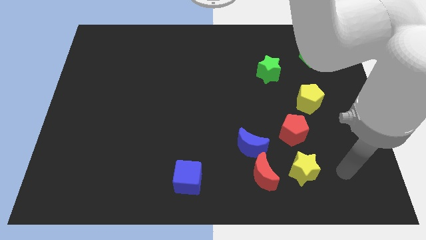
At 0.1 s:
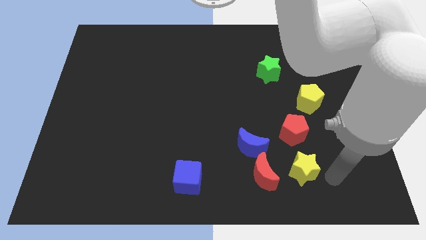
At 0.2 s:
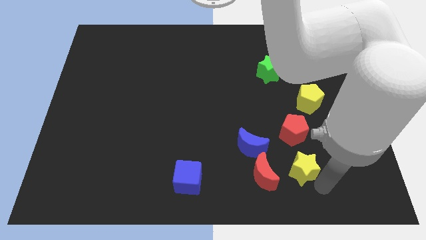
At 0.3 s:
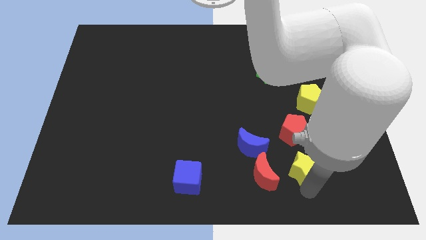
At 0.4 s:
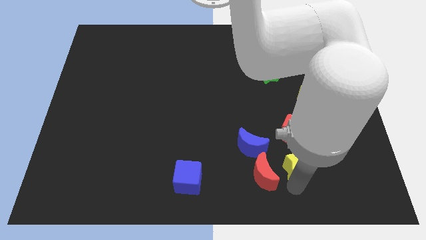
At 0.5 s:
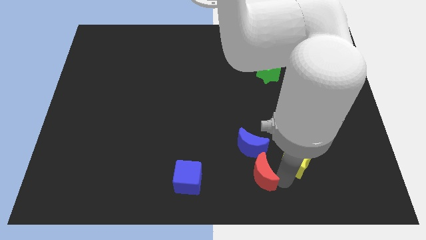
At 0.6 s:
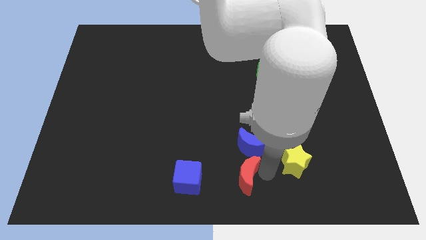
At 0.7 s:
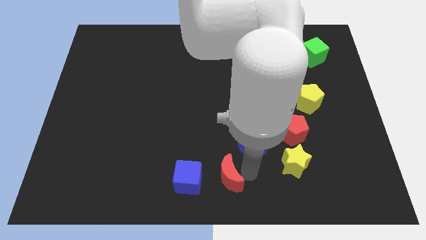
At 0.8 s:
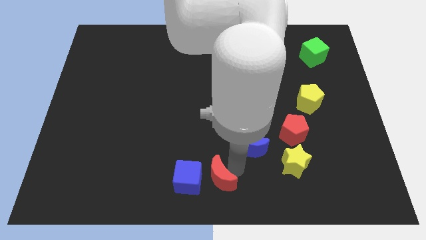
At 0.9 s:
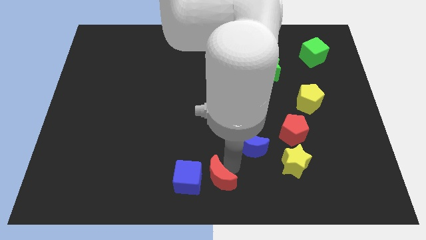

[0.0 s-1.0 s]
separate the blue moon from the red moon

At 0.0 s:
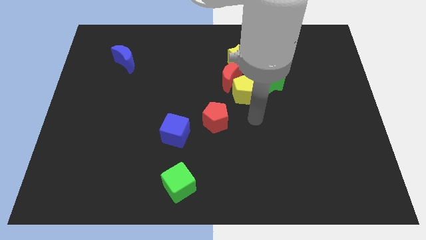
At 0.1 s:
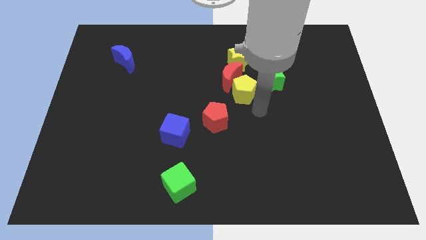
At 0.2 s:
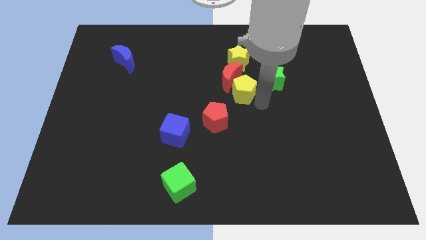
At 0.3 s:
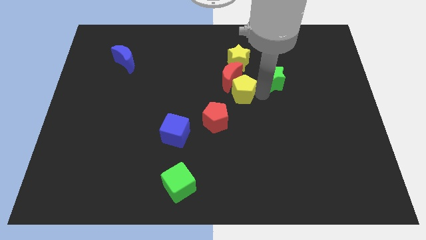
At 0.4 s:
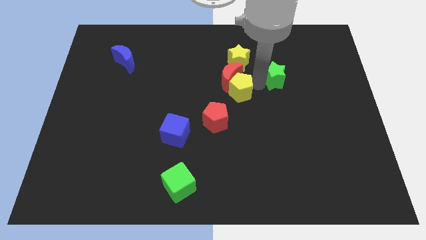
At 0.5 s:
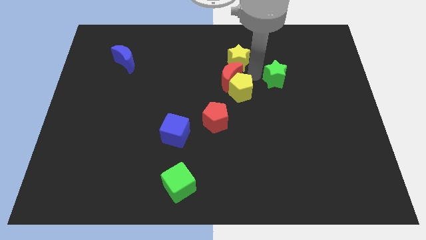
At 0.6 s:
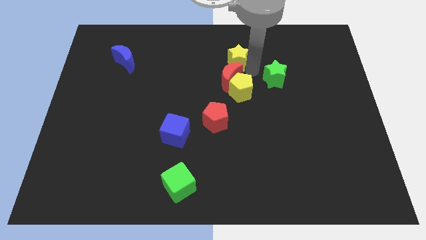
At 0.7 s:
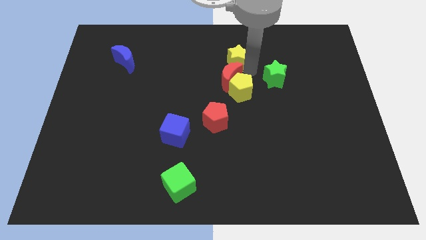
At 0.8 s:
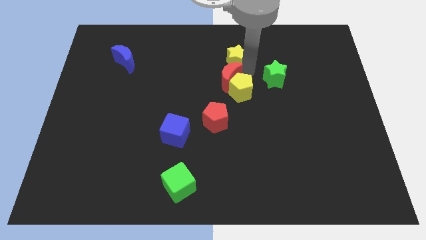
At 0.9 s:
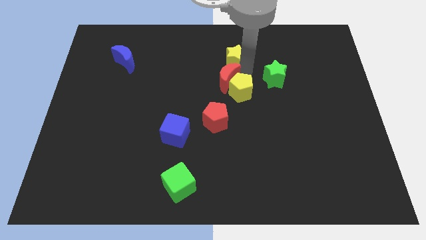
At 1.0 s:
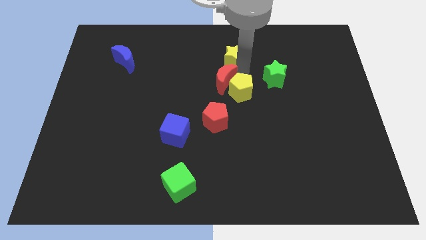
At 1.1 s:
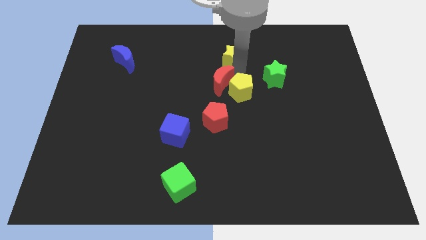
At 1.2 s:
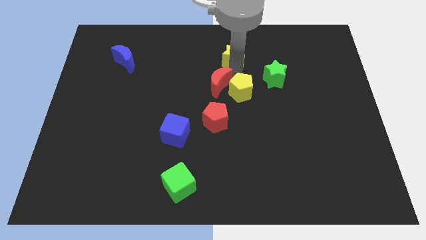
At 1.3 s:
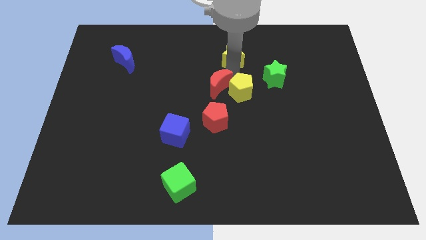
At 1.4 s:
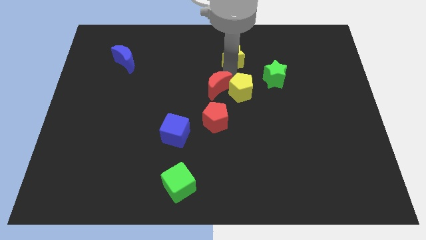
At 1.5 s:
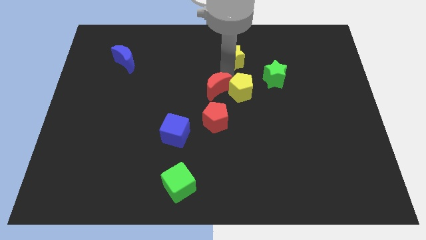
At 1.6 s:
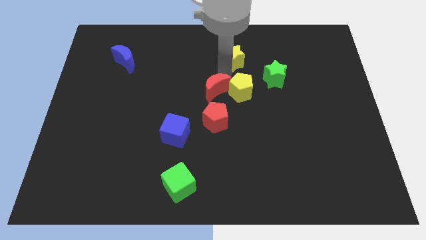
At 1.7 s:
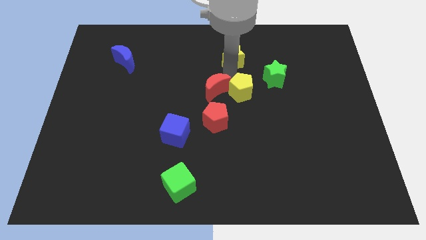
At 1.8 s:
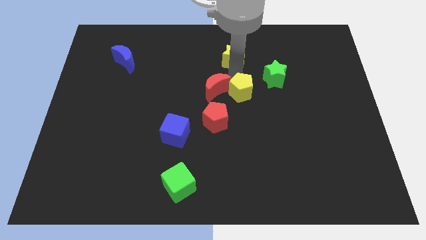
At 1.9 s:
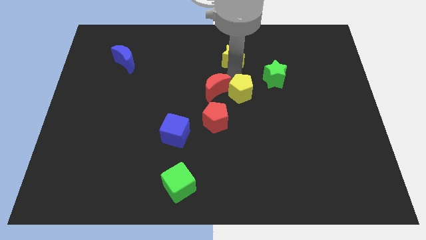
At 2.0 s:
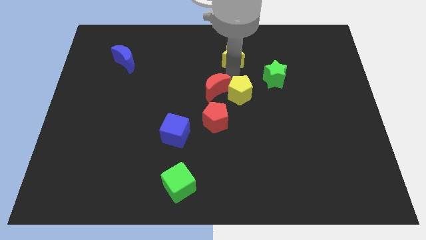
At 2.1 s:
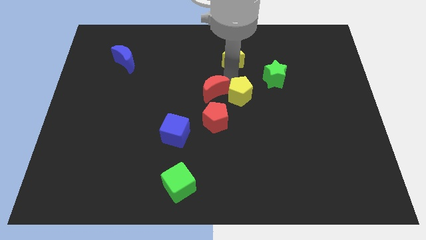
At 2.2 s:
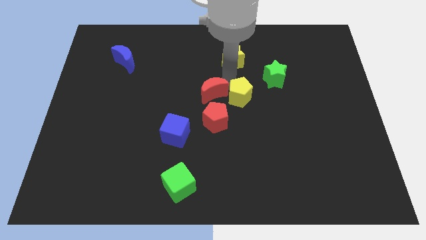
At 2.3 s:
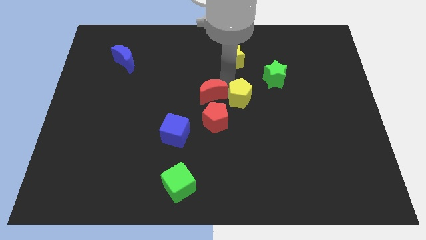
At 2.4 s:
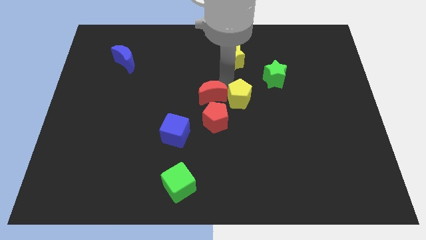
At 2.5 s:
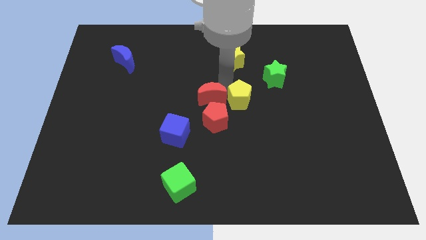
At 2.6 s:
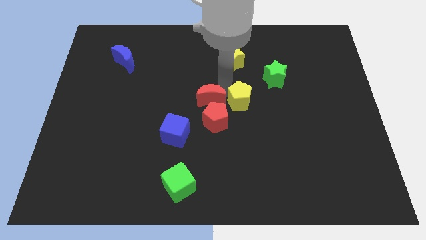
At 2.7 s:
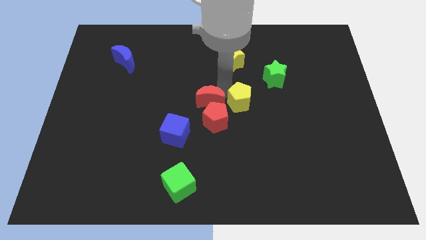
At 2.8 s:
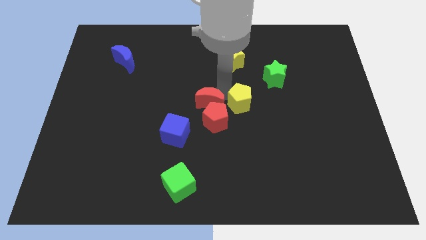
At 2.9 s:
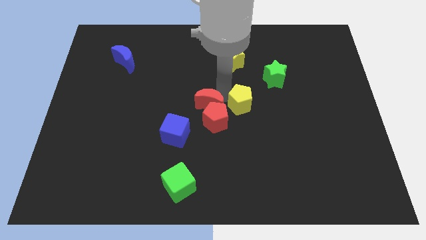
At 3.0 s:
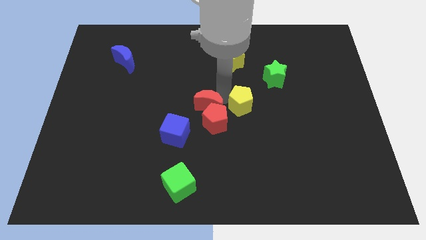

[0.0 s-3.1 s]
separate the red moon from the yellow pentagon and yellow star

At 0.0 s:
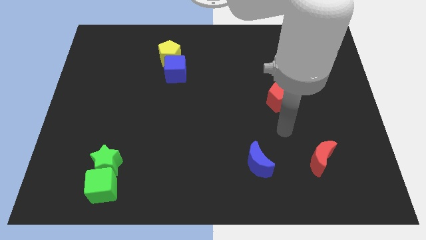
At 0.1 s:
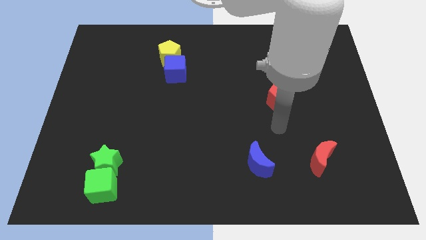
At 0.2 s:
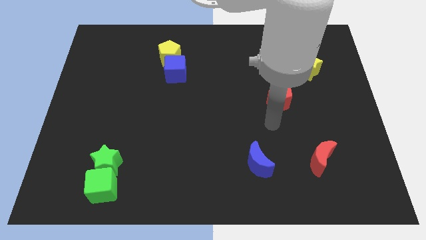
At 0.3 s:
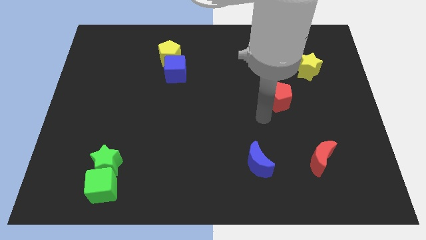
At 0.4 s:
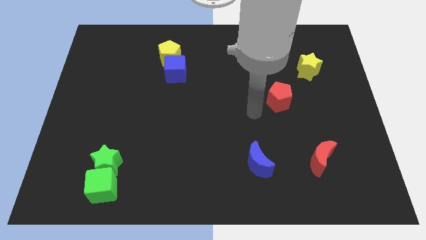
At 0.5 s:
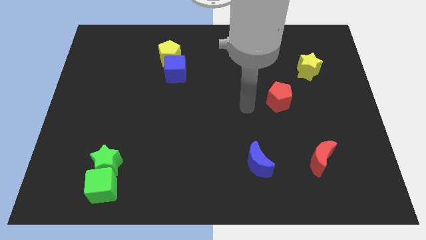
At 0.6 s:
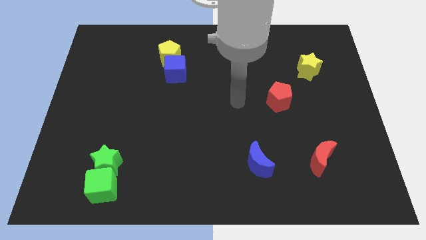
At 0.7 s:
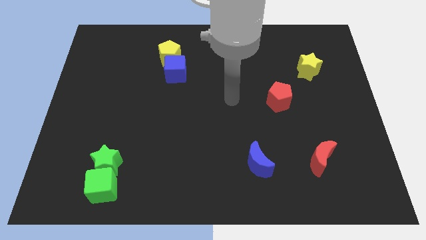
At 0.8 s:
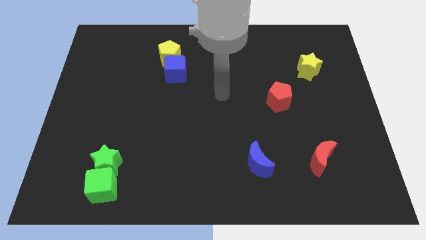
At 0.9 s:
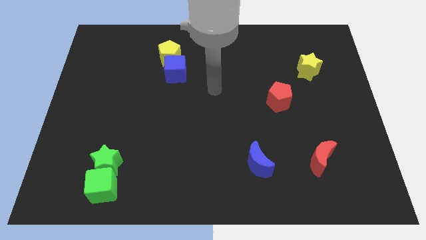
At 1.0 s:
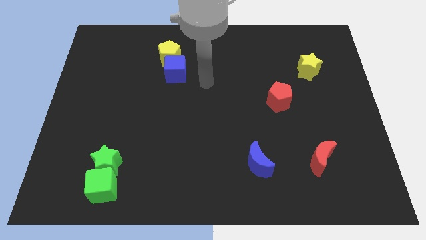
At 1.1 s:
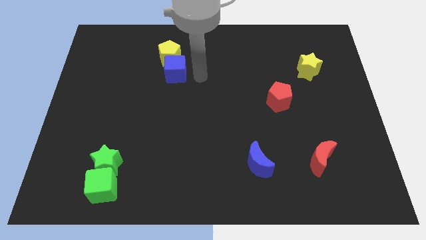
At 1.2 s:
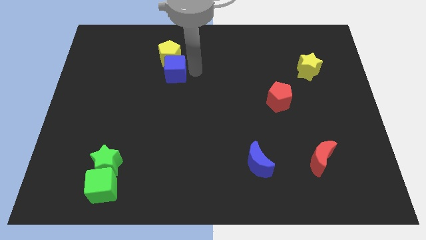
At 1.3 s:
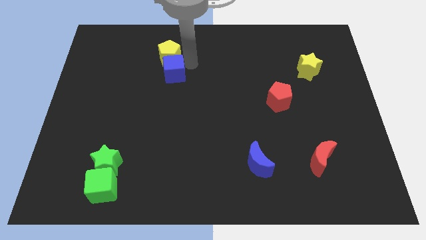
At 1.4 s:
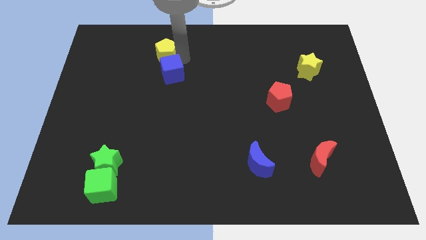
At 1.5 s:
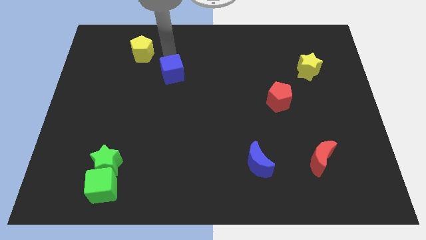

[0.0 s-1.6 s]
pull the blue cube apart from the yellow pentagon

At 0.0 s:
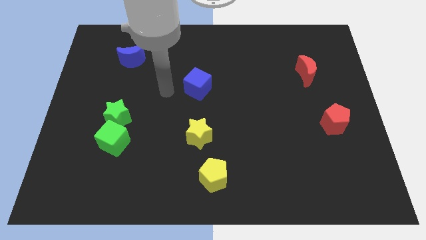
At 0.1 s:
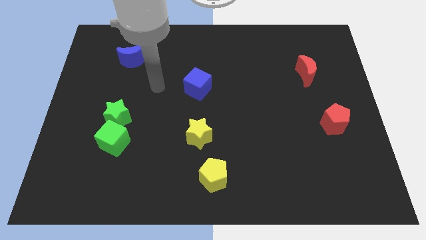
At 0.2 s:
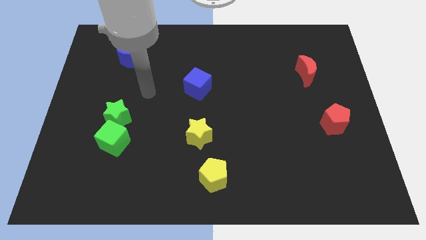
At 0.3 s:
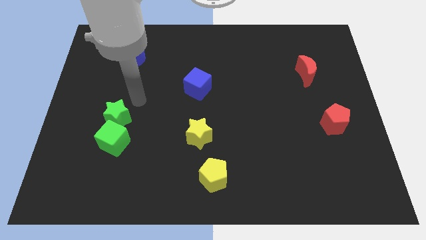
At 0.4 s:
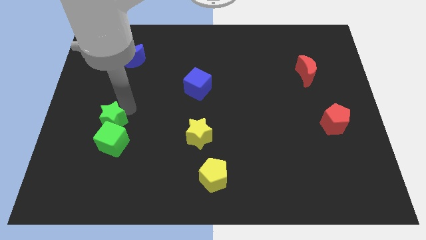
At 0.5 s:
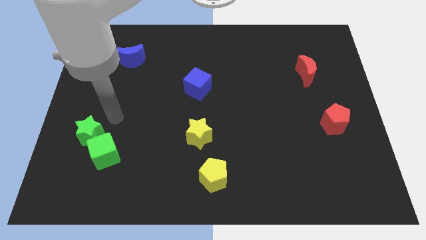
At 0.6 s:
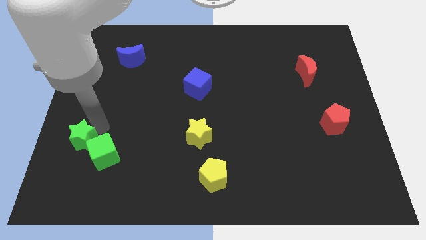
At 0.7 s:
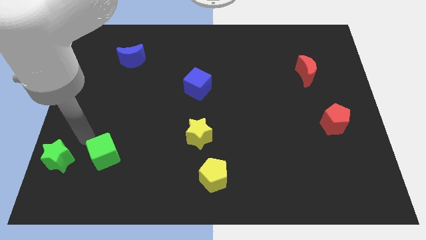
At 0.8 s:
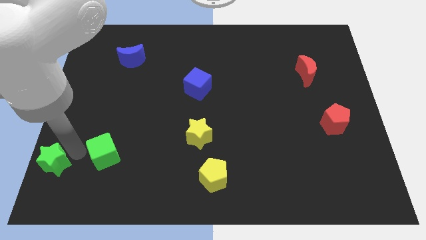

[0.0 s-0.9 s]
move the green cube away from the green star

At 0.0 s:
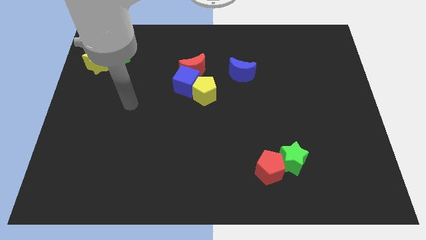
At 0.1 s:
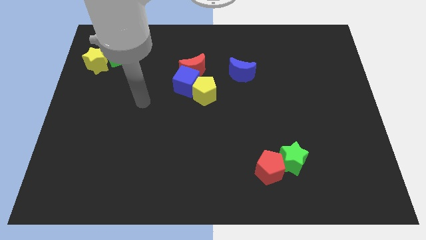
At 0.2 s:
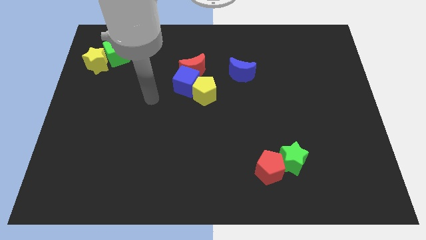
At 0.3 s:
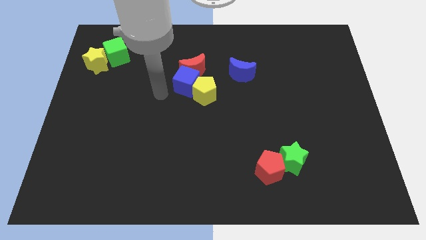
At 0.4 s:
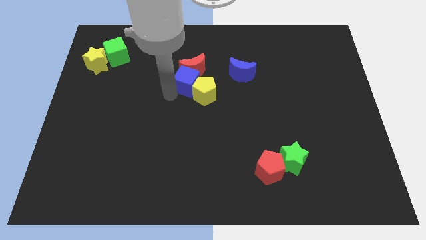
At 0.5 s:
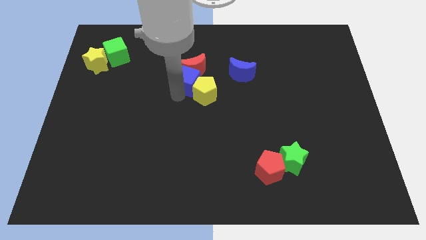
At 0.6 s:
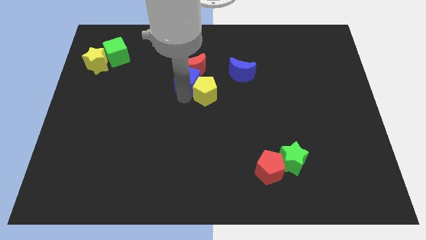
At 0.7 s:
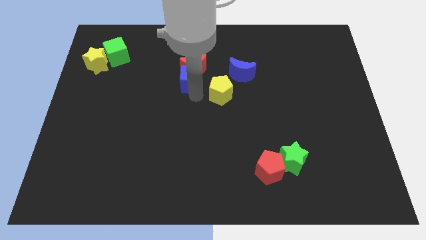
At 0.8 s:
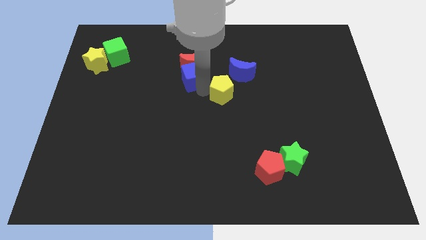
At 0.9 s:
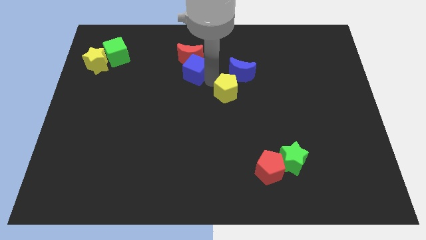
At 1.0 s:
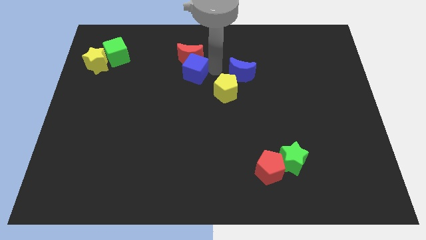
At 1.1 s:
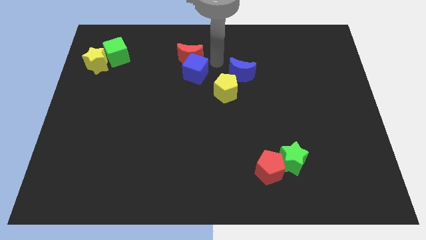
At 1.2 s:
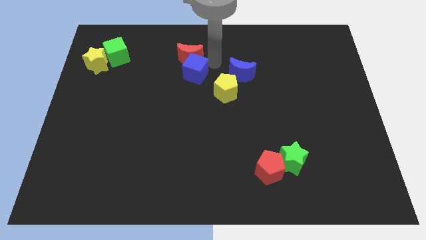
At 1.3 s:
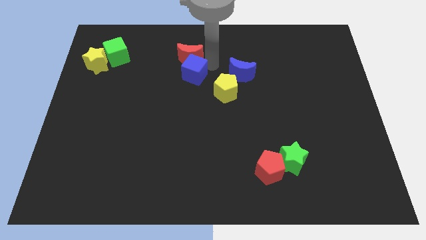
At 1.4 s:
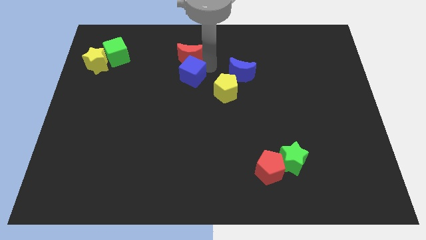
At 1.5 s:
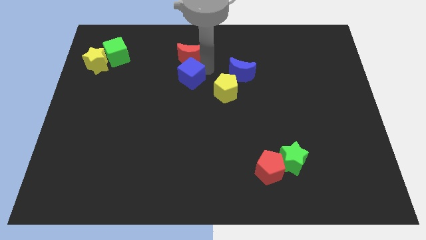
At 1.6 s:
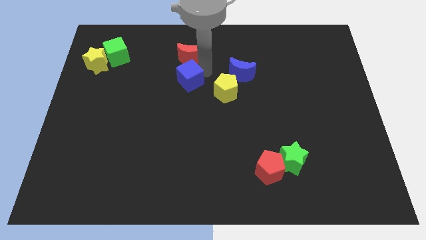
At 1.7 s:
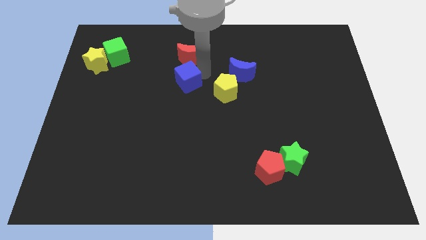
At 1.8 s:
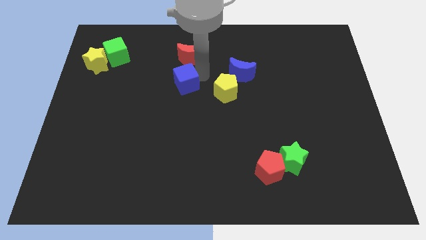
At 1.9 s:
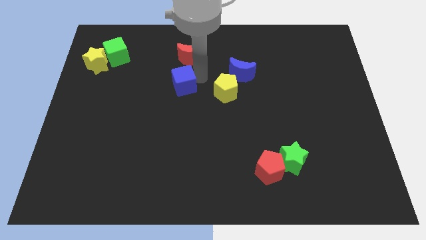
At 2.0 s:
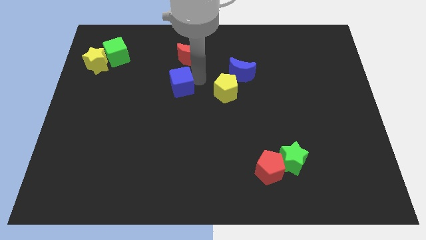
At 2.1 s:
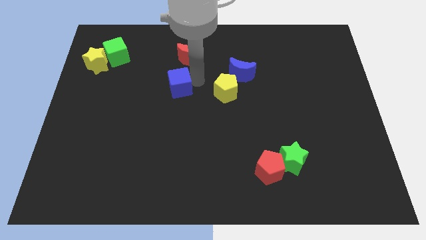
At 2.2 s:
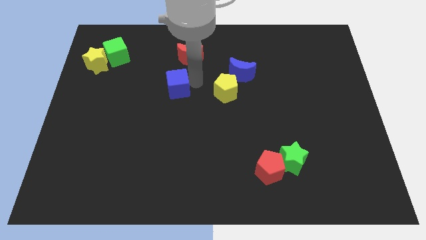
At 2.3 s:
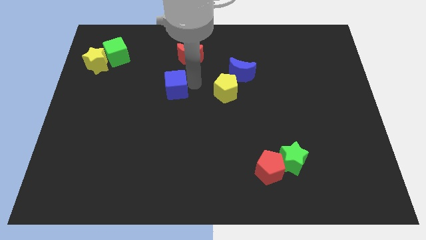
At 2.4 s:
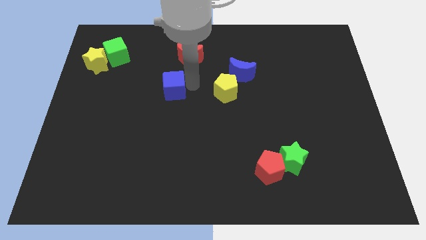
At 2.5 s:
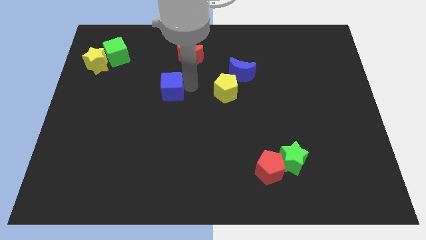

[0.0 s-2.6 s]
separate the blue cube from the red moon and yellow pentagon
